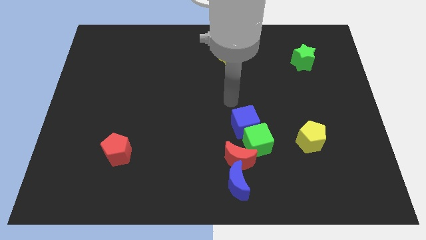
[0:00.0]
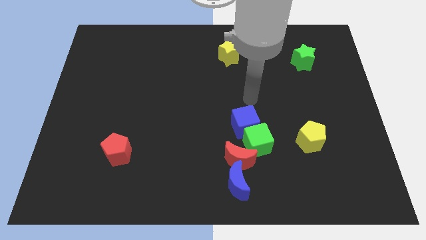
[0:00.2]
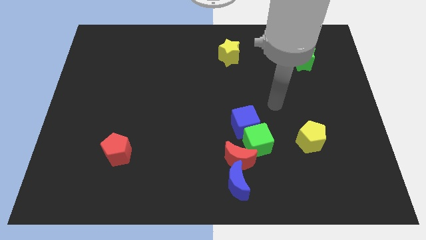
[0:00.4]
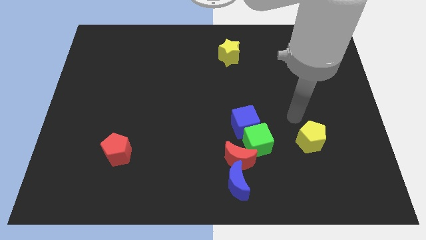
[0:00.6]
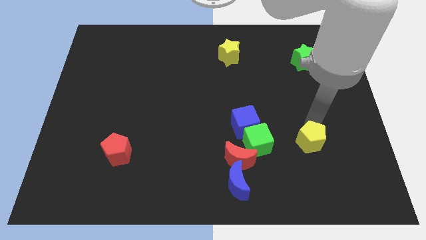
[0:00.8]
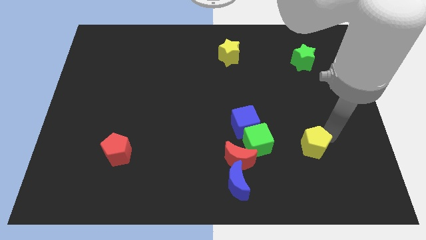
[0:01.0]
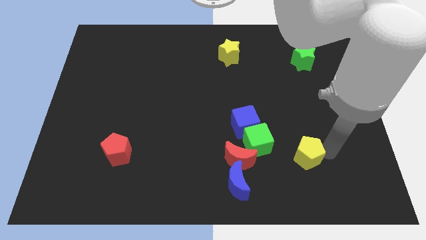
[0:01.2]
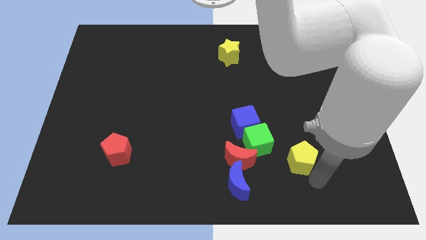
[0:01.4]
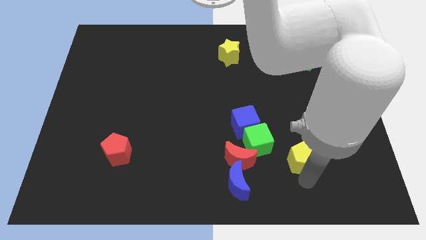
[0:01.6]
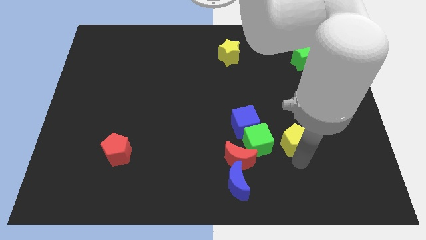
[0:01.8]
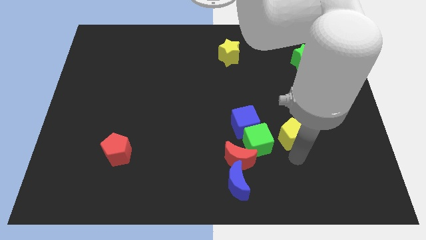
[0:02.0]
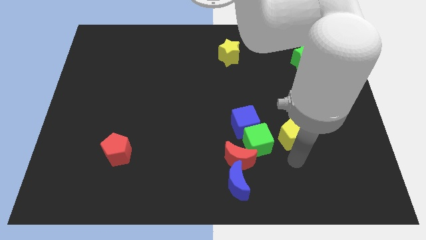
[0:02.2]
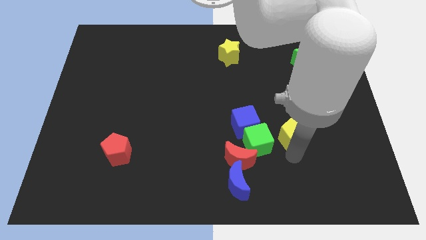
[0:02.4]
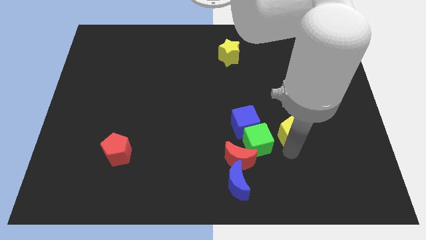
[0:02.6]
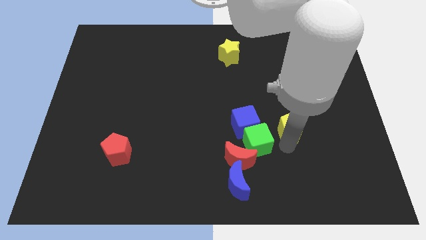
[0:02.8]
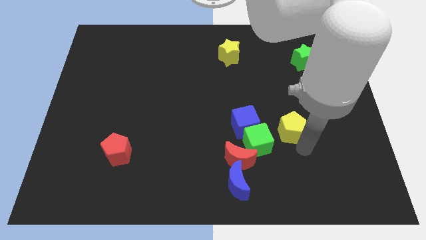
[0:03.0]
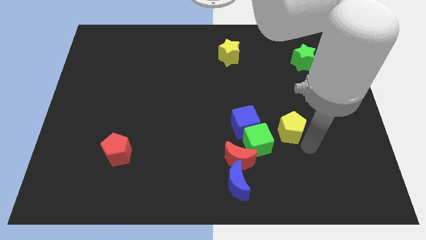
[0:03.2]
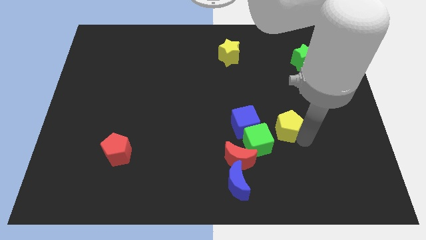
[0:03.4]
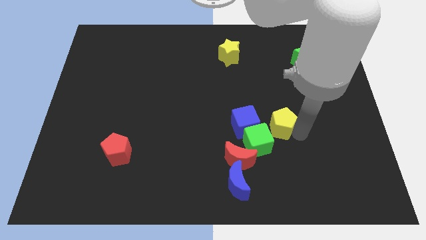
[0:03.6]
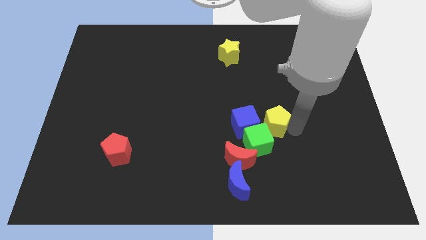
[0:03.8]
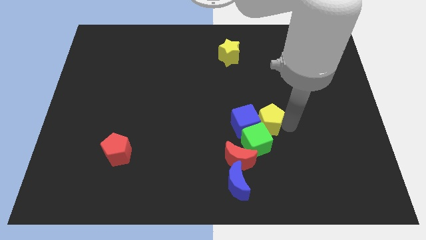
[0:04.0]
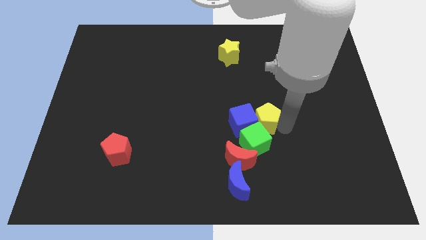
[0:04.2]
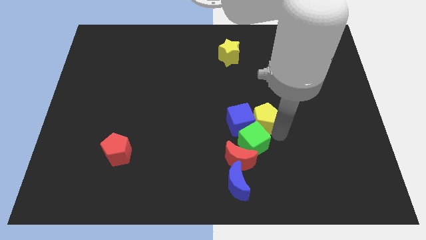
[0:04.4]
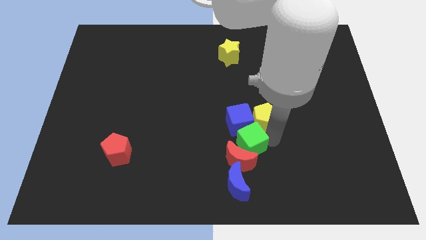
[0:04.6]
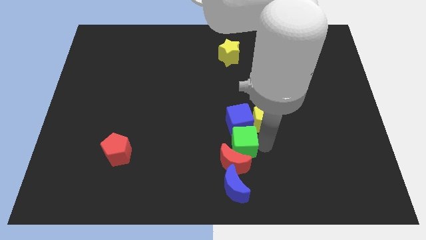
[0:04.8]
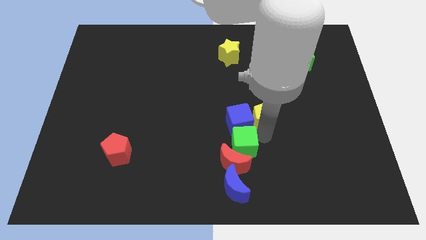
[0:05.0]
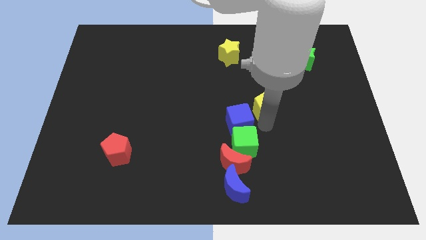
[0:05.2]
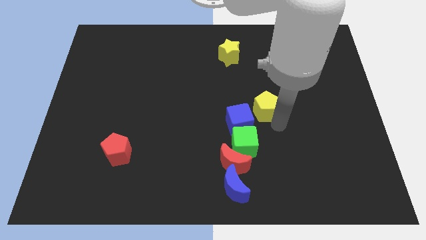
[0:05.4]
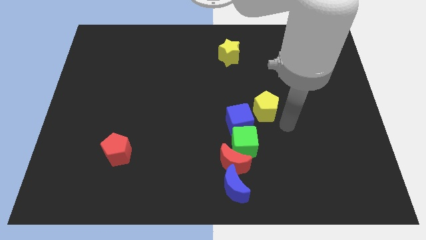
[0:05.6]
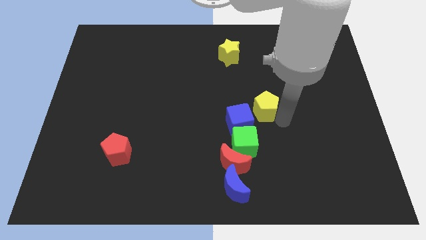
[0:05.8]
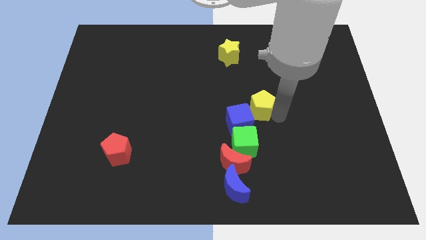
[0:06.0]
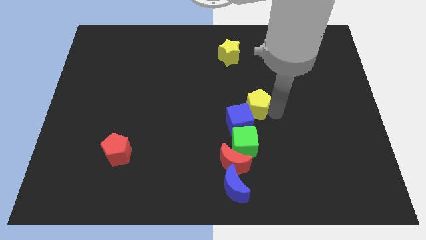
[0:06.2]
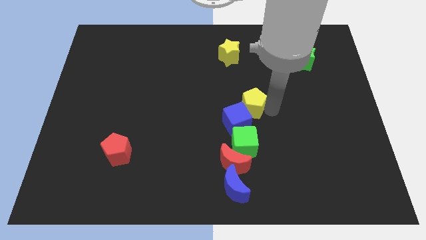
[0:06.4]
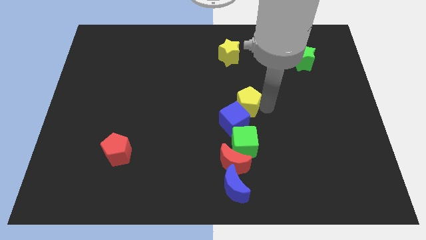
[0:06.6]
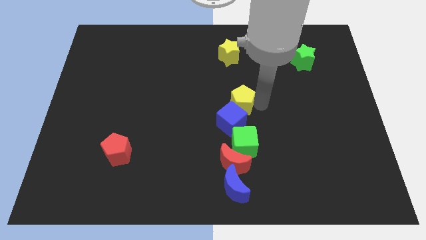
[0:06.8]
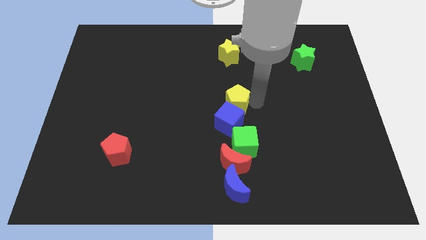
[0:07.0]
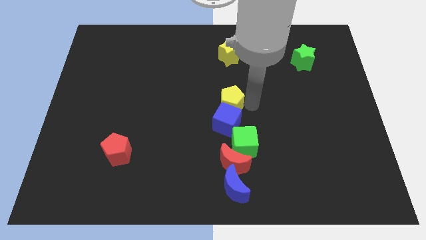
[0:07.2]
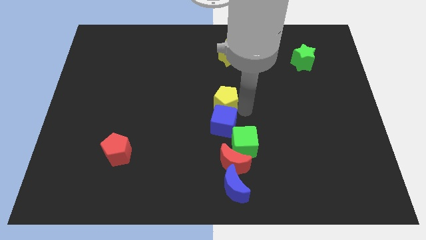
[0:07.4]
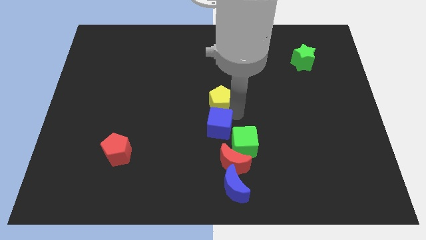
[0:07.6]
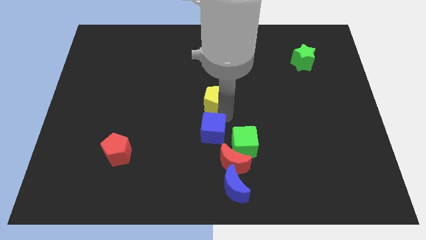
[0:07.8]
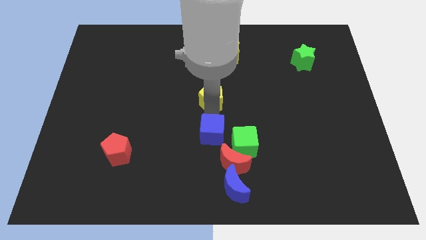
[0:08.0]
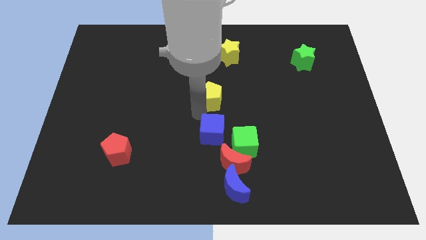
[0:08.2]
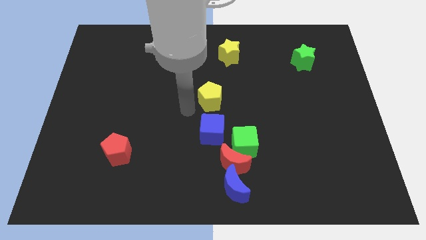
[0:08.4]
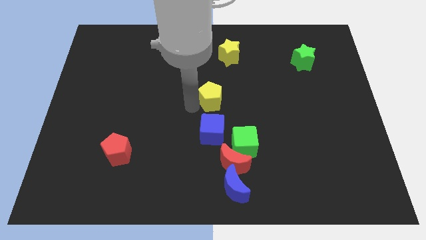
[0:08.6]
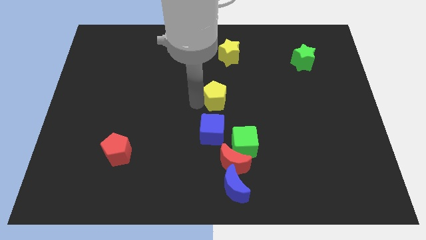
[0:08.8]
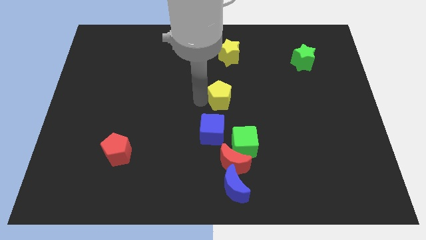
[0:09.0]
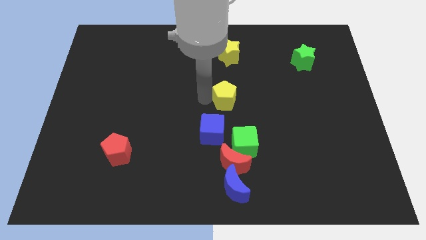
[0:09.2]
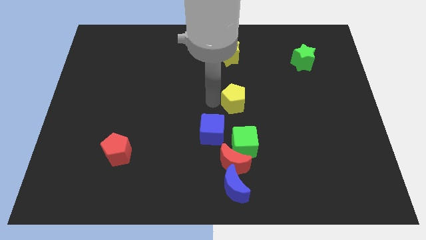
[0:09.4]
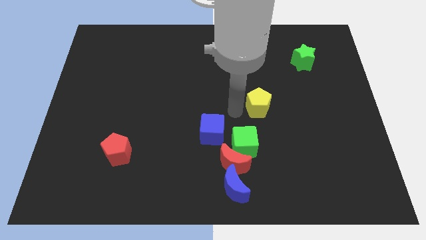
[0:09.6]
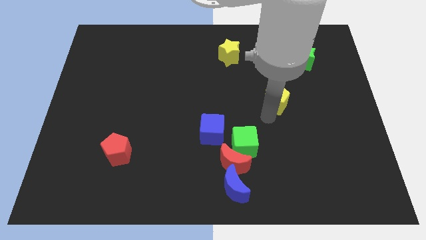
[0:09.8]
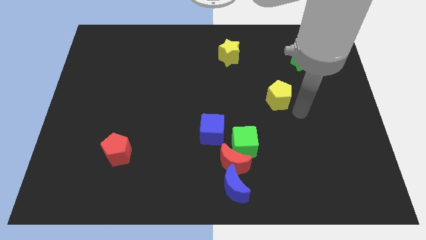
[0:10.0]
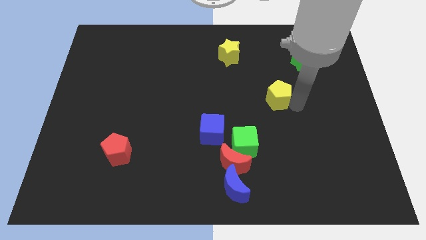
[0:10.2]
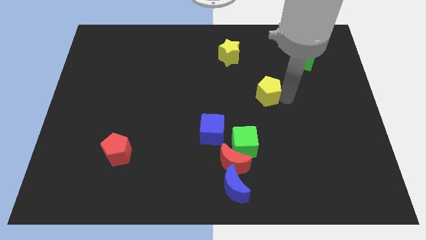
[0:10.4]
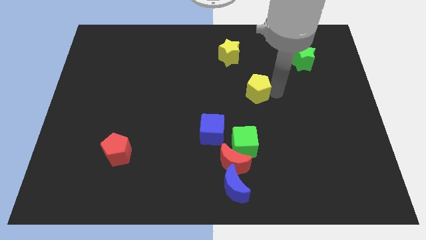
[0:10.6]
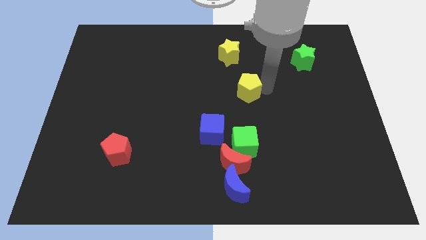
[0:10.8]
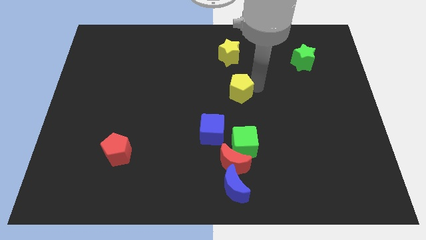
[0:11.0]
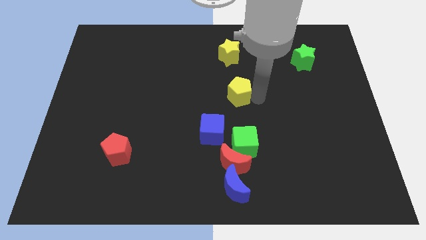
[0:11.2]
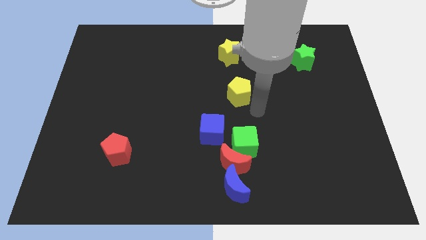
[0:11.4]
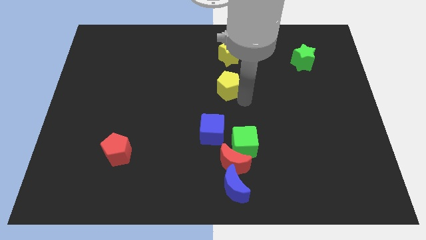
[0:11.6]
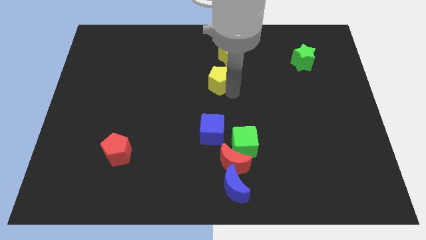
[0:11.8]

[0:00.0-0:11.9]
slide the yellow pentagon diagonally down and to the left of the yellow star

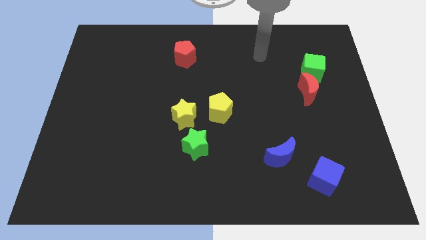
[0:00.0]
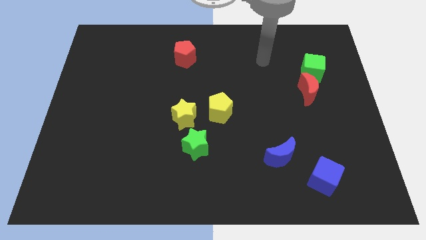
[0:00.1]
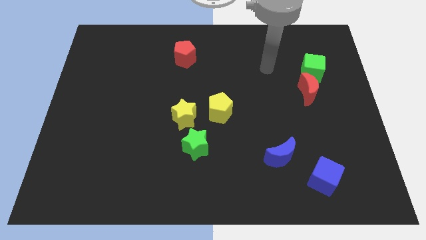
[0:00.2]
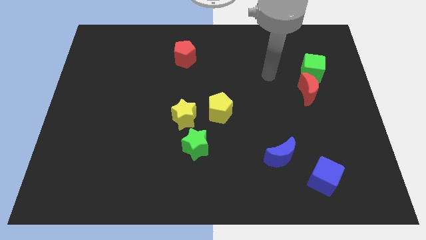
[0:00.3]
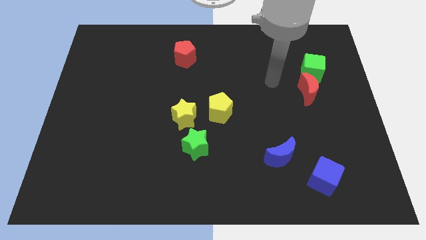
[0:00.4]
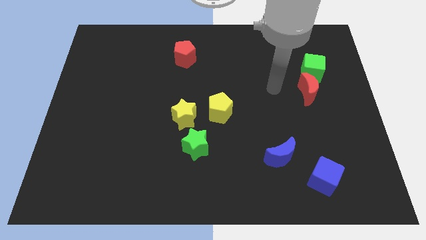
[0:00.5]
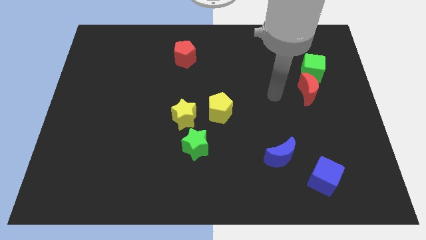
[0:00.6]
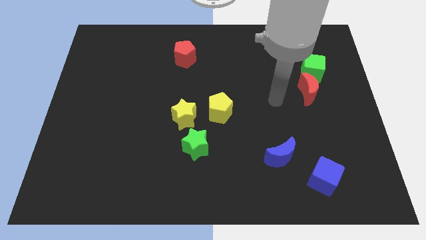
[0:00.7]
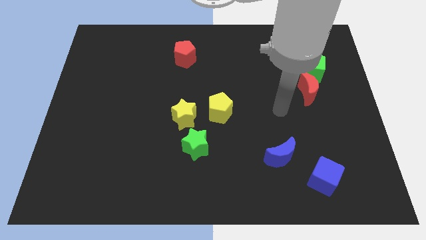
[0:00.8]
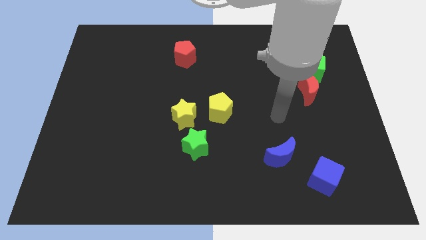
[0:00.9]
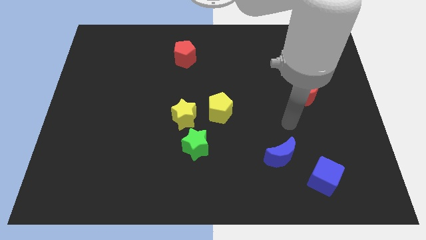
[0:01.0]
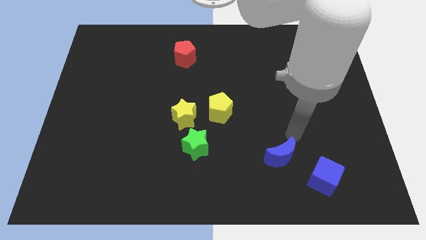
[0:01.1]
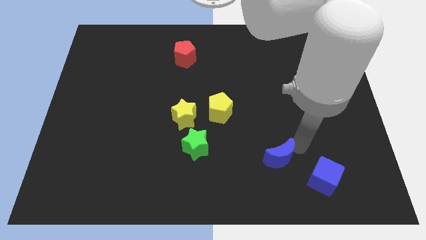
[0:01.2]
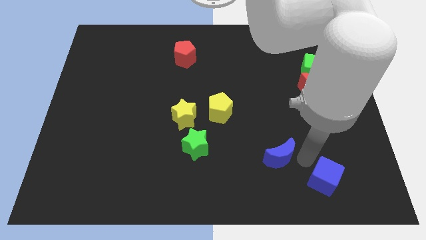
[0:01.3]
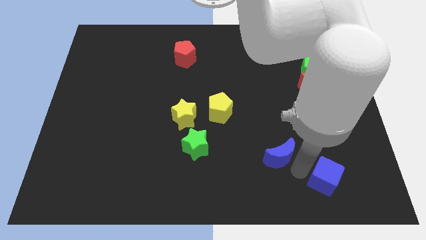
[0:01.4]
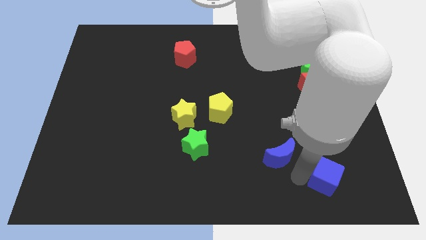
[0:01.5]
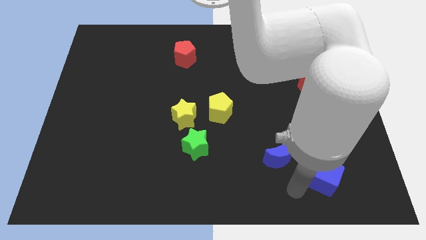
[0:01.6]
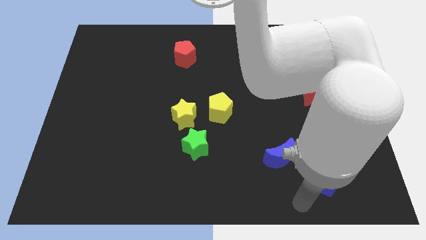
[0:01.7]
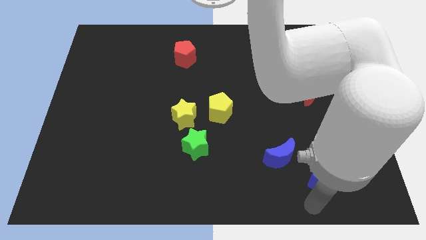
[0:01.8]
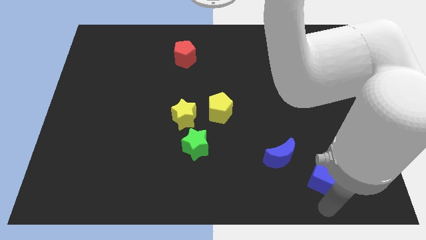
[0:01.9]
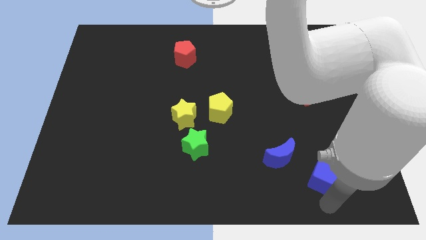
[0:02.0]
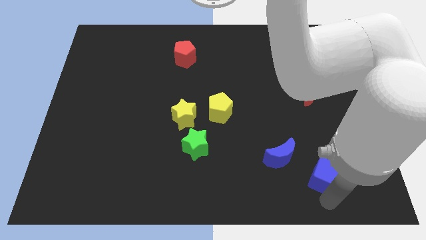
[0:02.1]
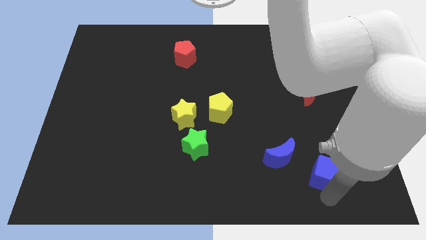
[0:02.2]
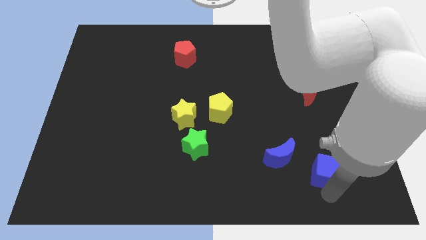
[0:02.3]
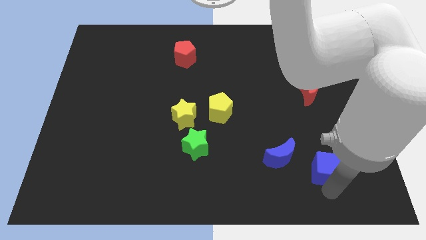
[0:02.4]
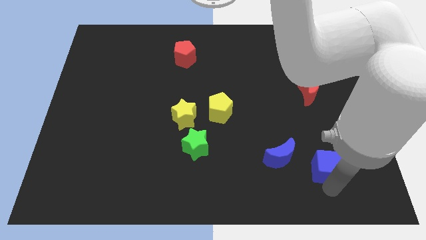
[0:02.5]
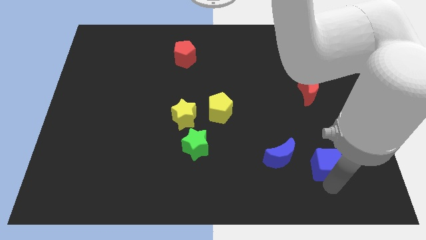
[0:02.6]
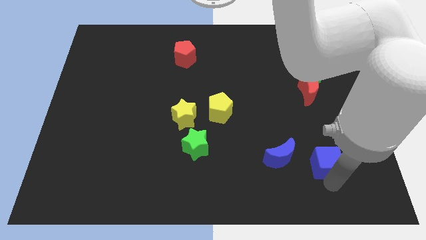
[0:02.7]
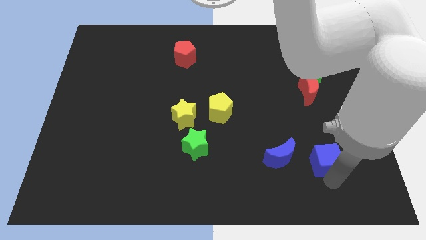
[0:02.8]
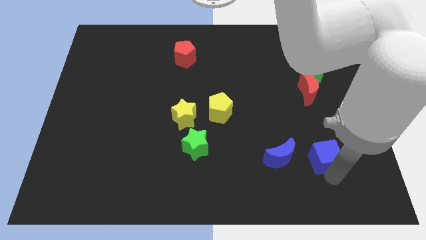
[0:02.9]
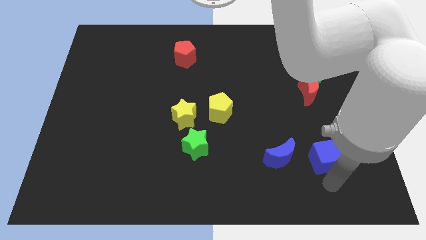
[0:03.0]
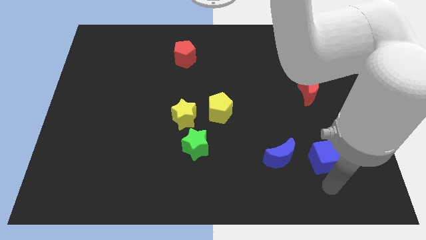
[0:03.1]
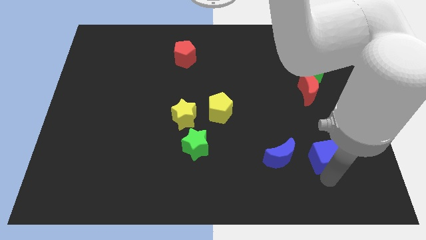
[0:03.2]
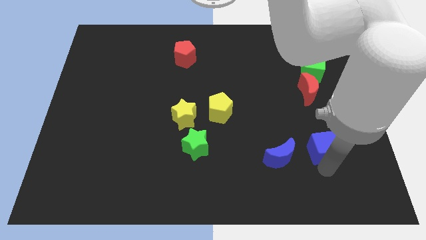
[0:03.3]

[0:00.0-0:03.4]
put the blue cube below the red moon
